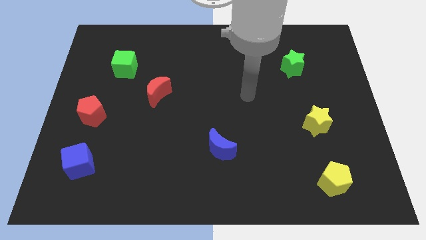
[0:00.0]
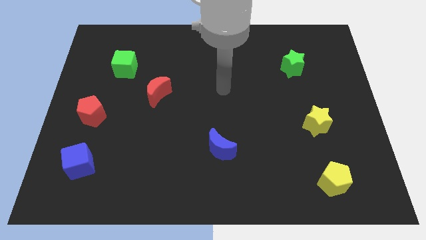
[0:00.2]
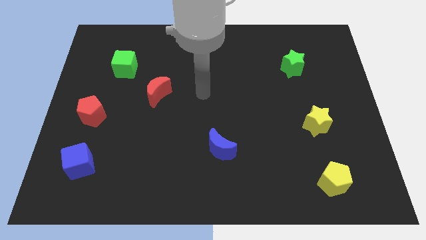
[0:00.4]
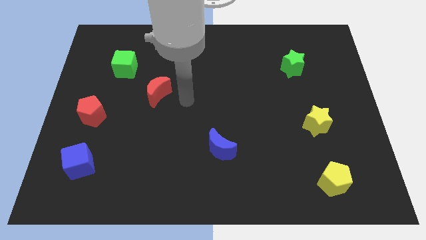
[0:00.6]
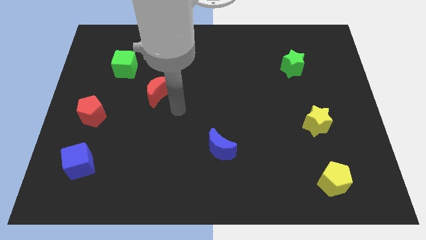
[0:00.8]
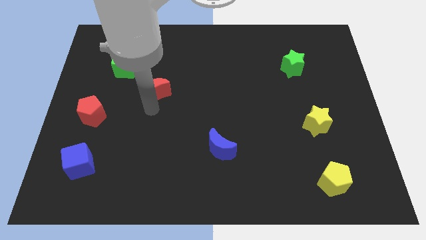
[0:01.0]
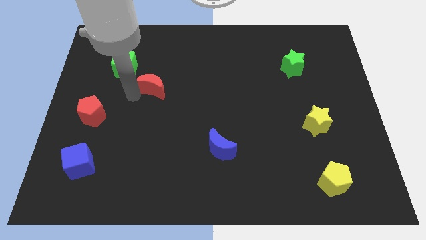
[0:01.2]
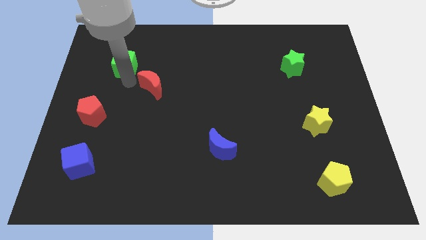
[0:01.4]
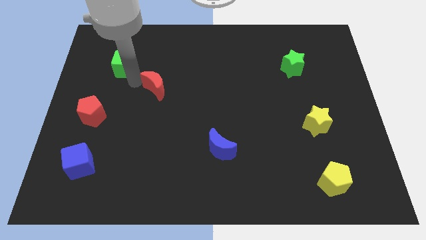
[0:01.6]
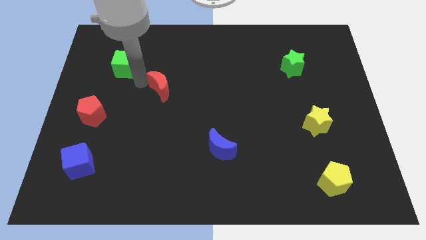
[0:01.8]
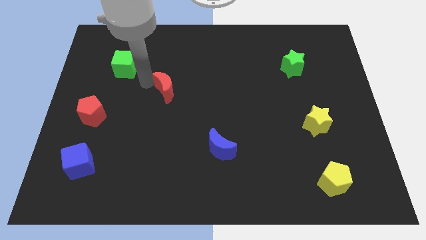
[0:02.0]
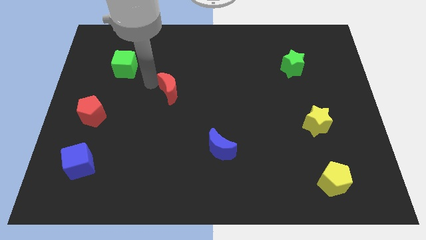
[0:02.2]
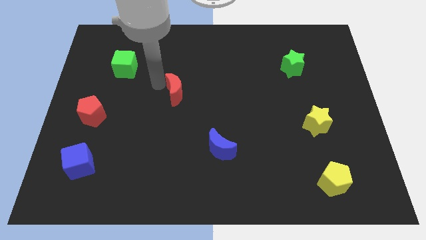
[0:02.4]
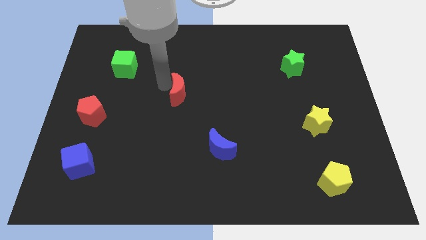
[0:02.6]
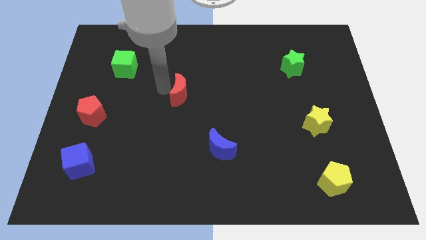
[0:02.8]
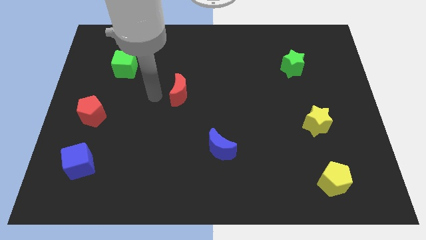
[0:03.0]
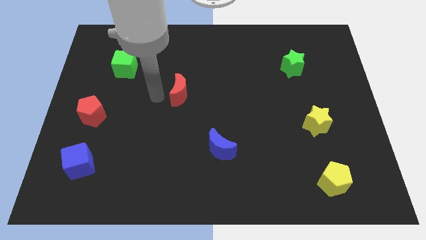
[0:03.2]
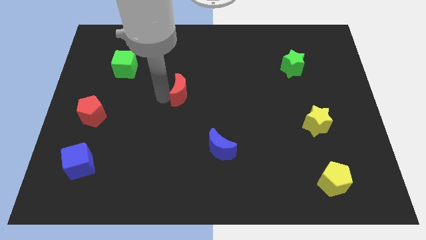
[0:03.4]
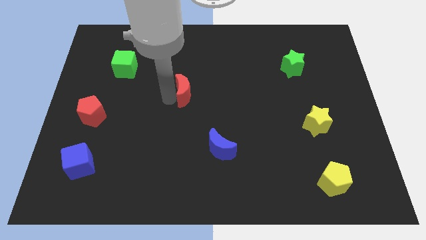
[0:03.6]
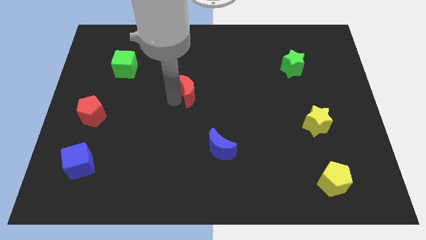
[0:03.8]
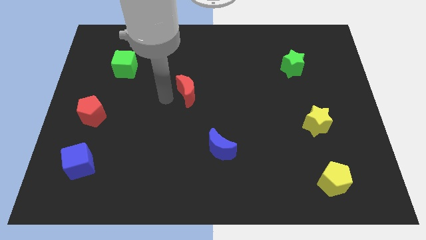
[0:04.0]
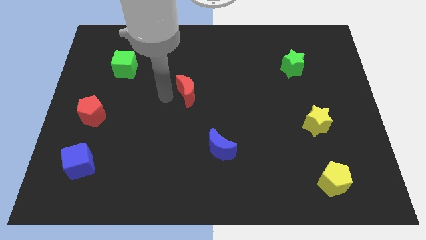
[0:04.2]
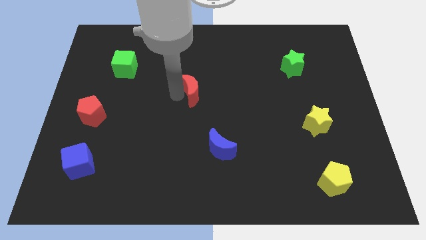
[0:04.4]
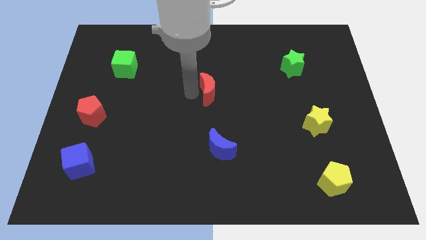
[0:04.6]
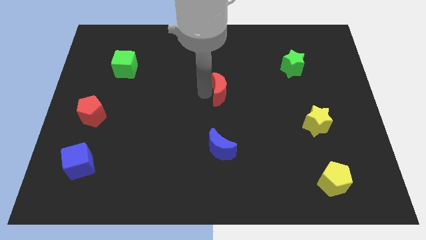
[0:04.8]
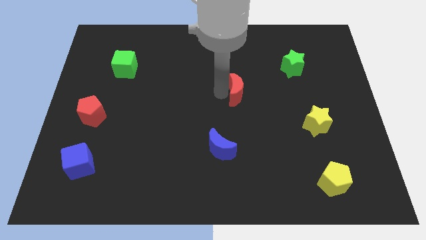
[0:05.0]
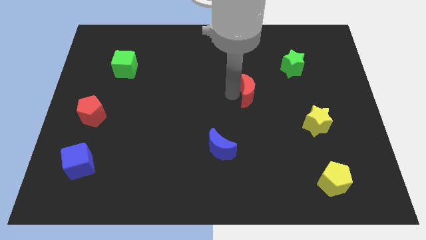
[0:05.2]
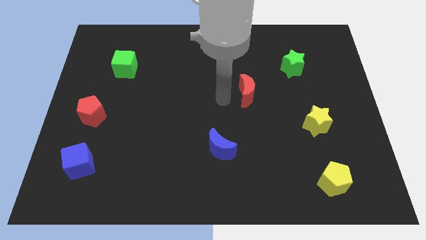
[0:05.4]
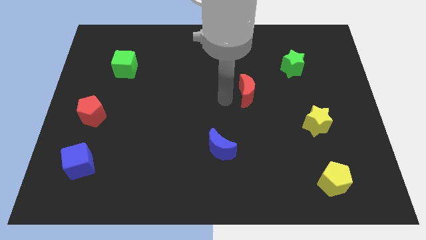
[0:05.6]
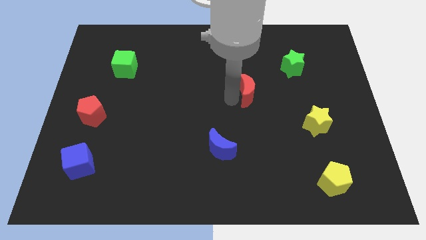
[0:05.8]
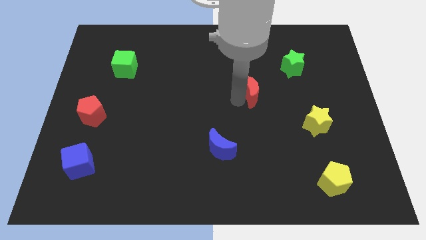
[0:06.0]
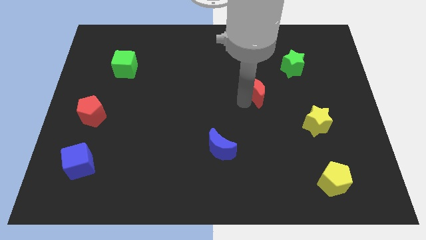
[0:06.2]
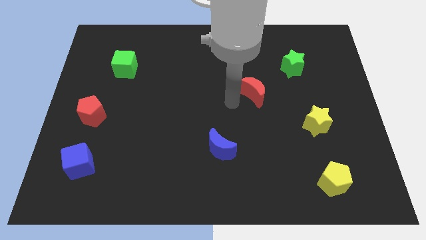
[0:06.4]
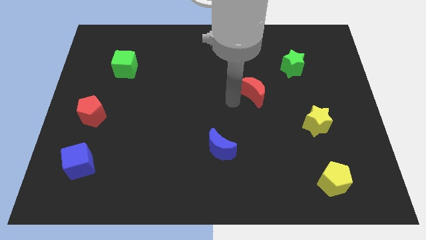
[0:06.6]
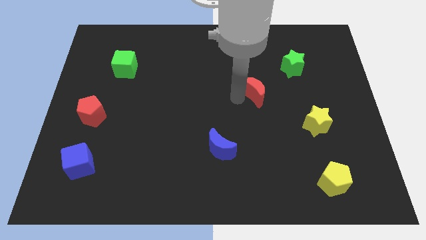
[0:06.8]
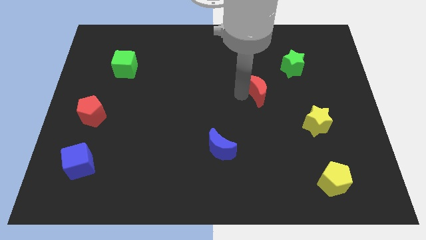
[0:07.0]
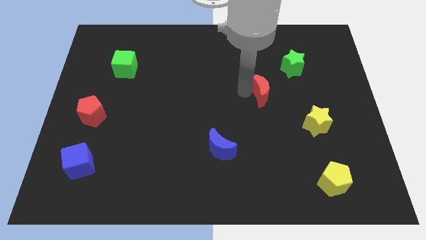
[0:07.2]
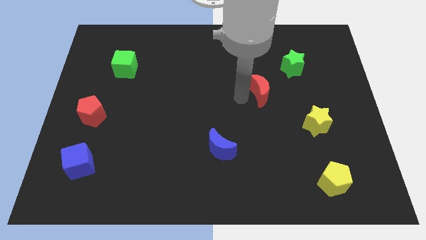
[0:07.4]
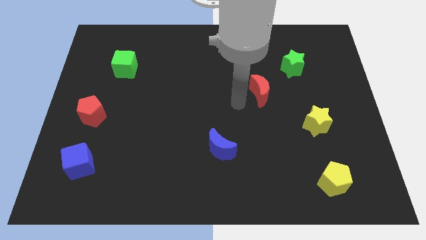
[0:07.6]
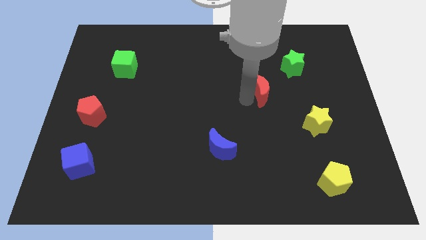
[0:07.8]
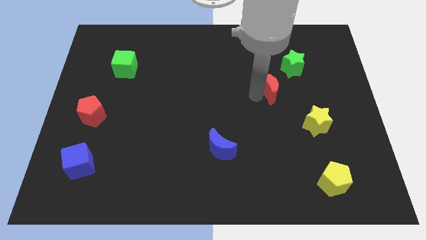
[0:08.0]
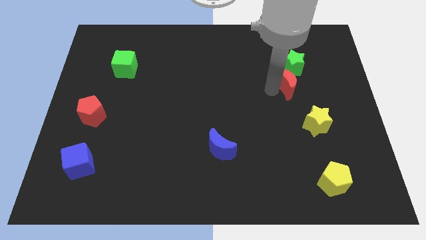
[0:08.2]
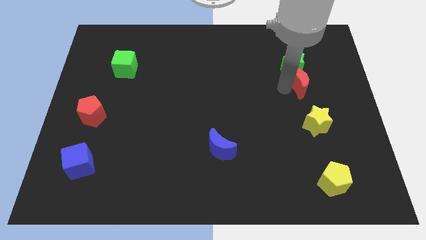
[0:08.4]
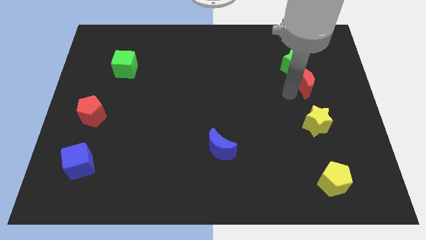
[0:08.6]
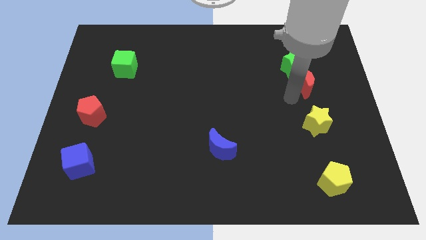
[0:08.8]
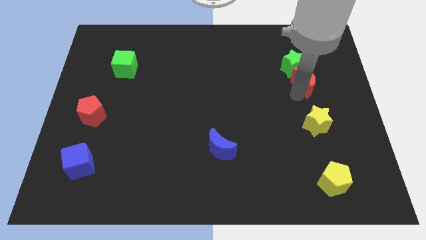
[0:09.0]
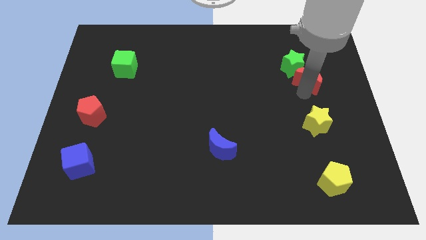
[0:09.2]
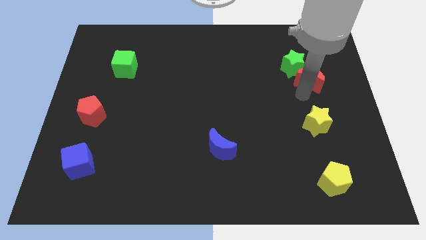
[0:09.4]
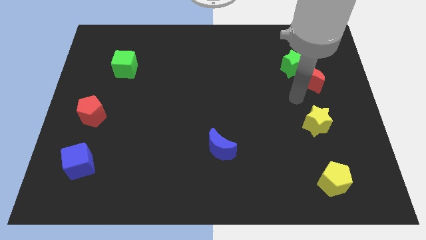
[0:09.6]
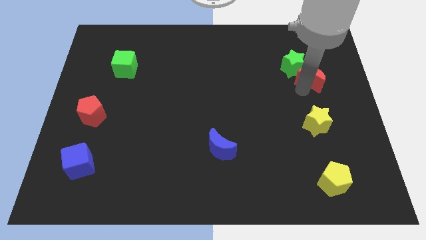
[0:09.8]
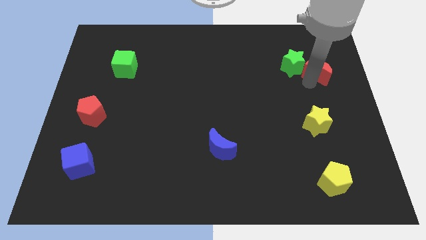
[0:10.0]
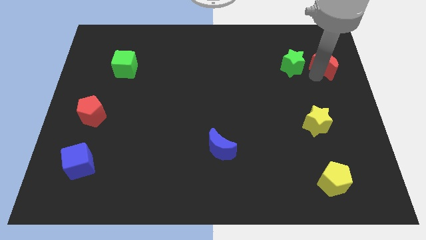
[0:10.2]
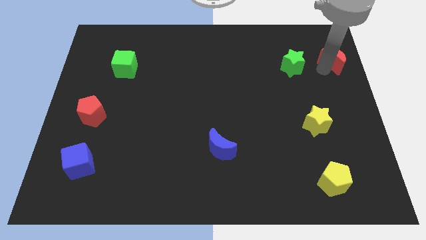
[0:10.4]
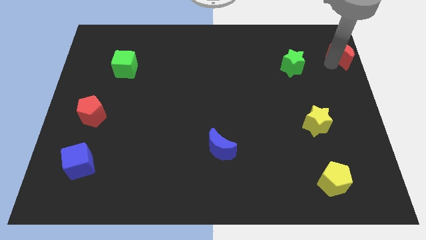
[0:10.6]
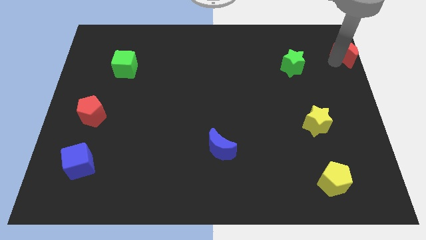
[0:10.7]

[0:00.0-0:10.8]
push the red moon to the top right corner

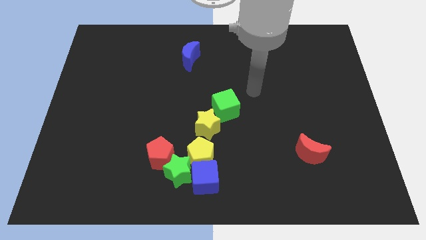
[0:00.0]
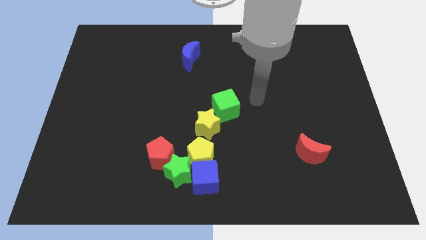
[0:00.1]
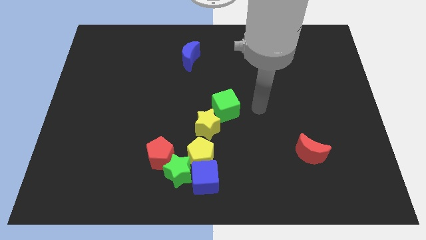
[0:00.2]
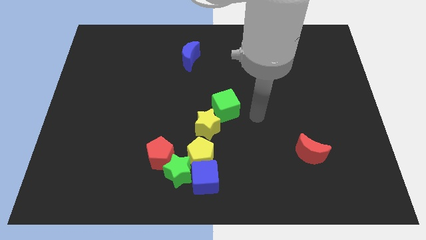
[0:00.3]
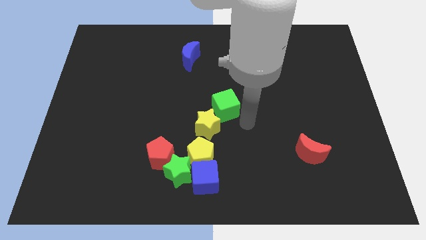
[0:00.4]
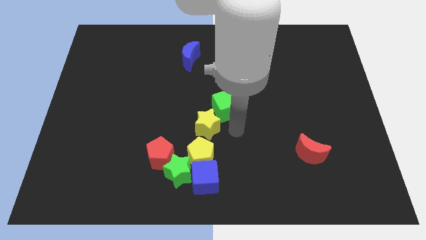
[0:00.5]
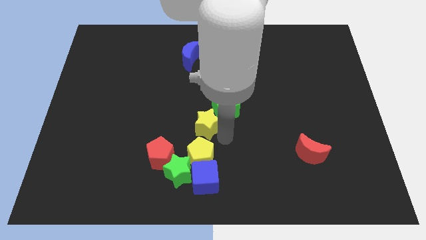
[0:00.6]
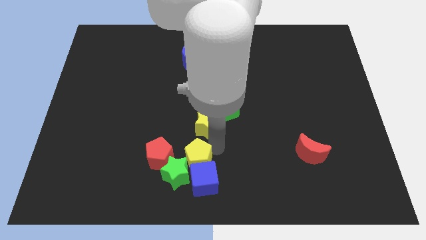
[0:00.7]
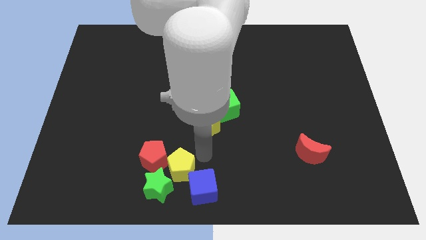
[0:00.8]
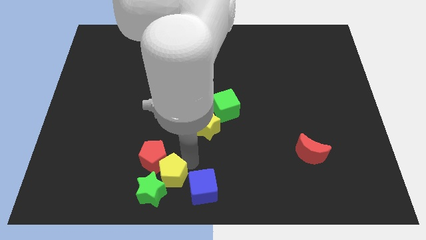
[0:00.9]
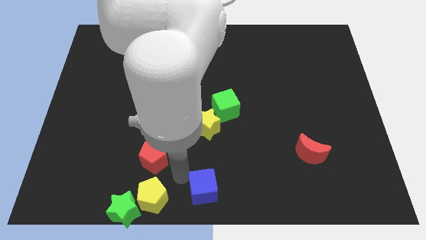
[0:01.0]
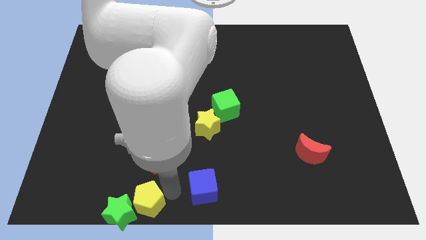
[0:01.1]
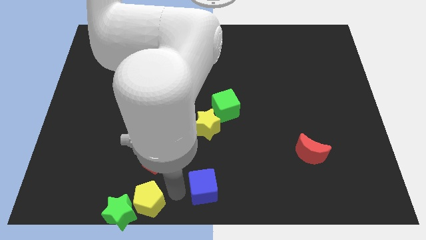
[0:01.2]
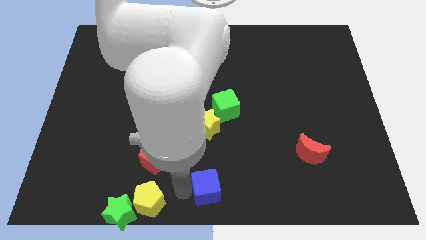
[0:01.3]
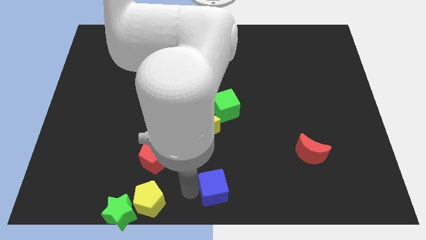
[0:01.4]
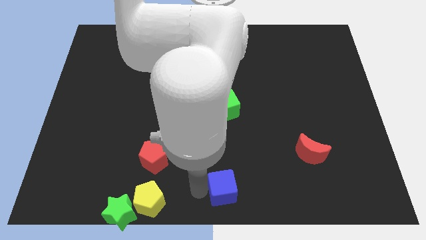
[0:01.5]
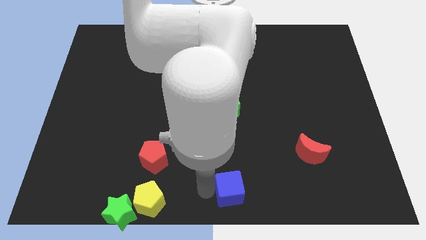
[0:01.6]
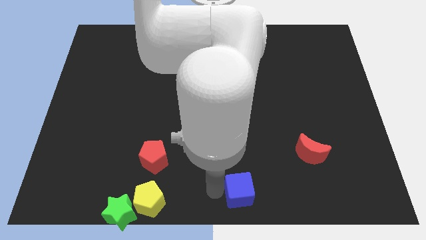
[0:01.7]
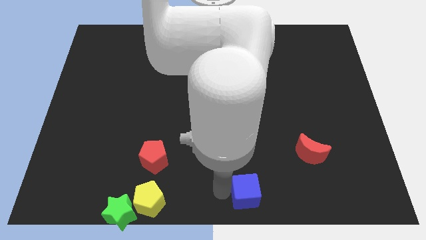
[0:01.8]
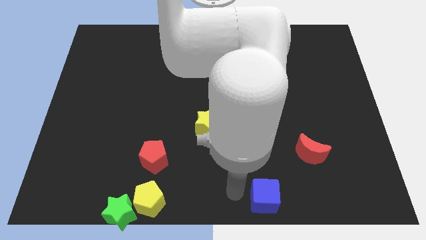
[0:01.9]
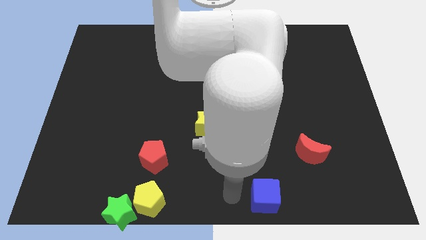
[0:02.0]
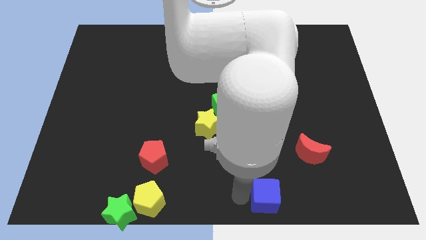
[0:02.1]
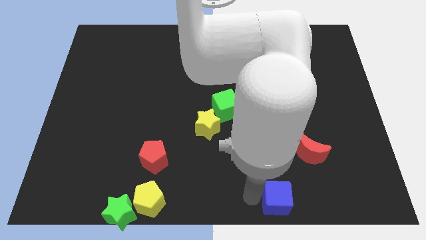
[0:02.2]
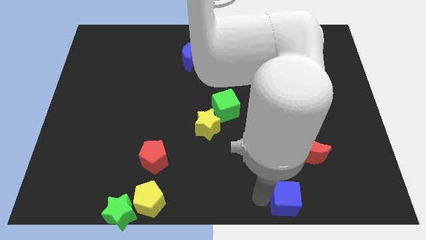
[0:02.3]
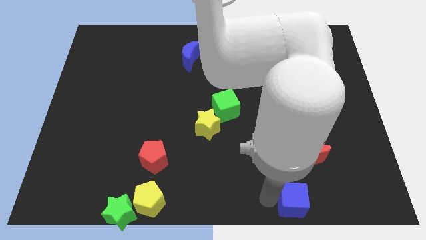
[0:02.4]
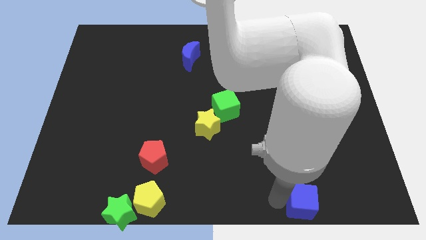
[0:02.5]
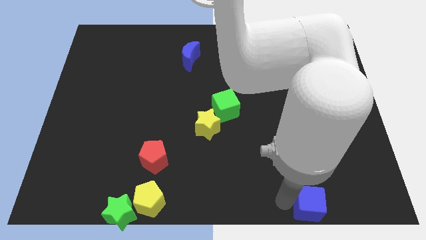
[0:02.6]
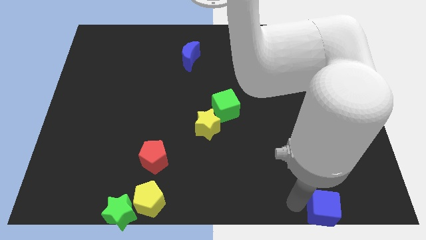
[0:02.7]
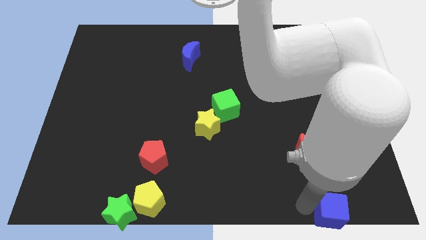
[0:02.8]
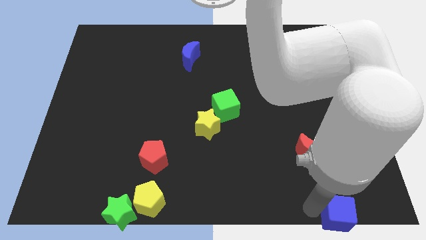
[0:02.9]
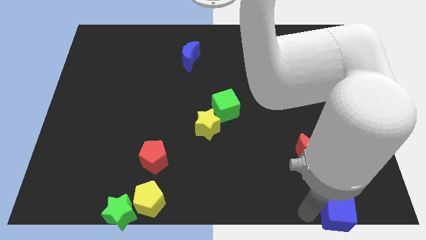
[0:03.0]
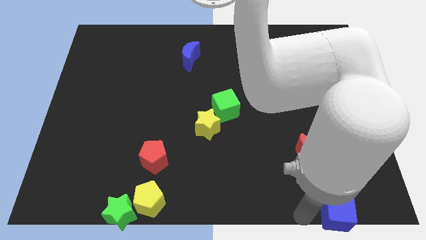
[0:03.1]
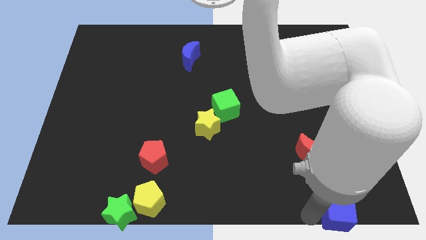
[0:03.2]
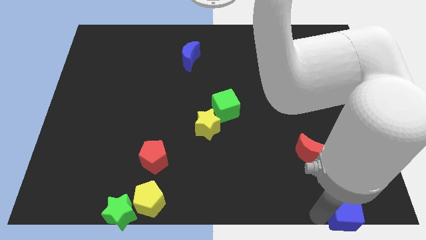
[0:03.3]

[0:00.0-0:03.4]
push the blue cube to the lower right corner
